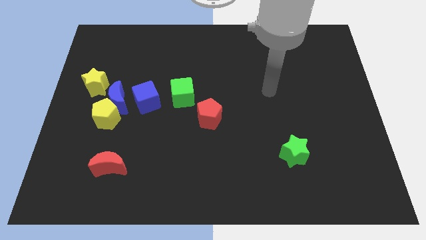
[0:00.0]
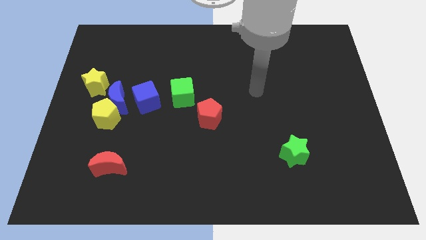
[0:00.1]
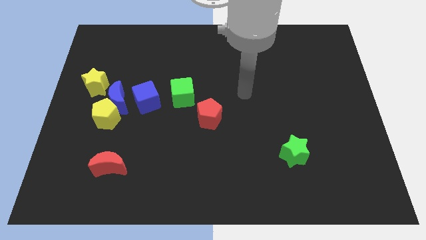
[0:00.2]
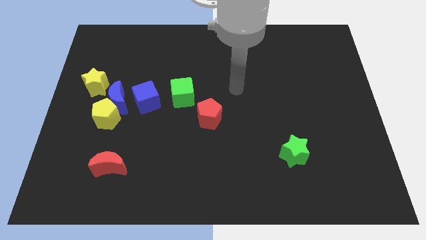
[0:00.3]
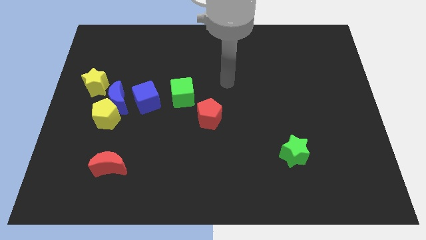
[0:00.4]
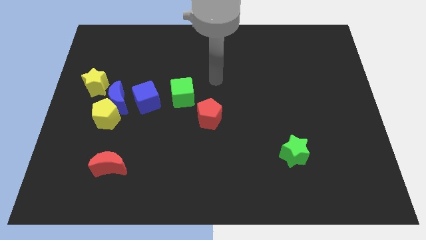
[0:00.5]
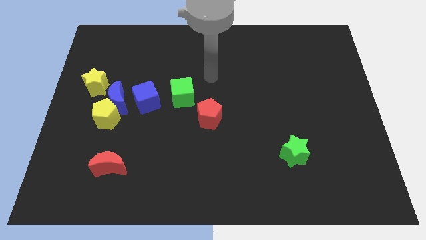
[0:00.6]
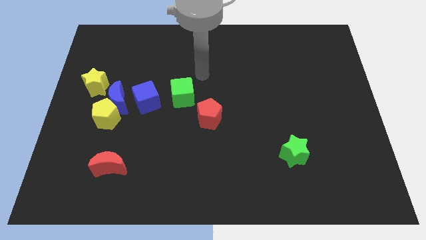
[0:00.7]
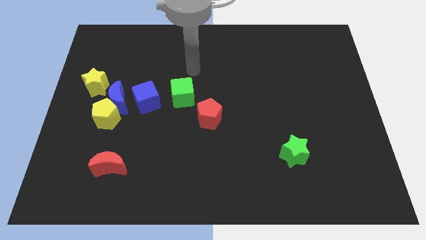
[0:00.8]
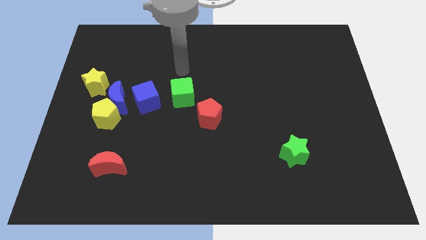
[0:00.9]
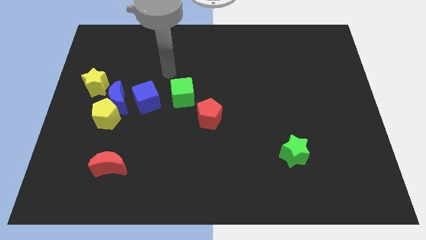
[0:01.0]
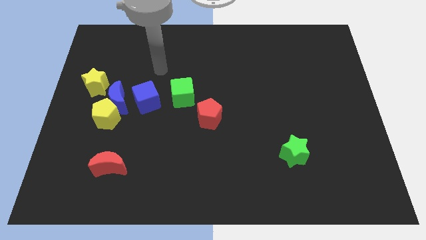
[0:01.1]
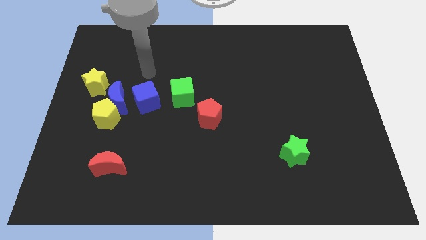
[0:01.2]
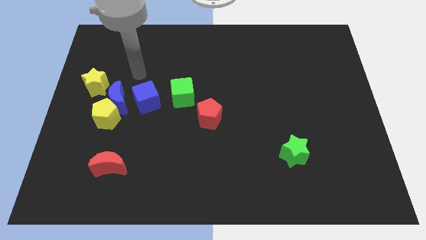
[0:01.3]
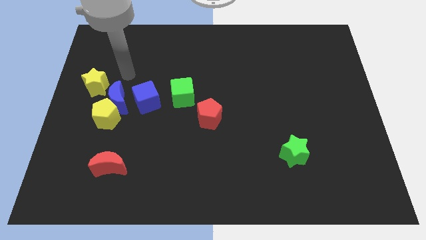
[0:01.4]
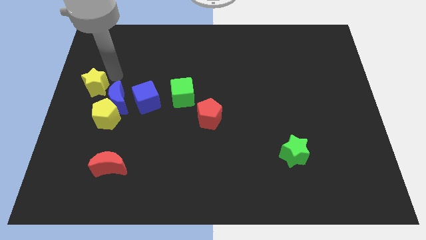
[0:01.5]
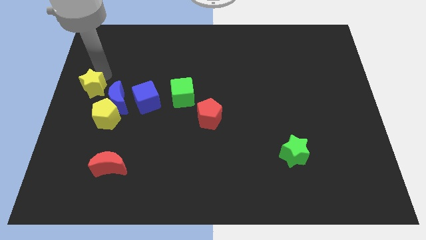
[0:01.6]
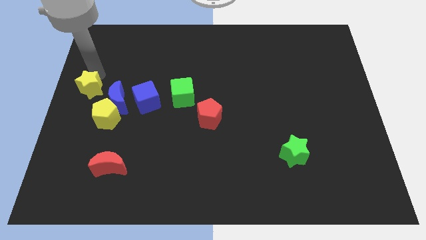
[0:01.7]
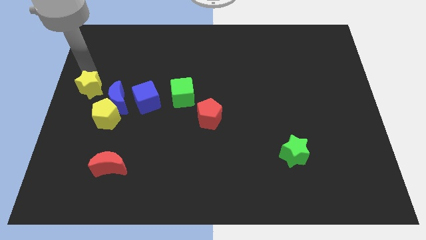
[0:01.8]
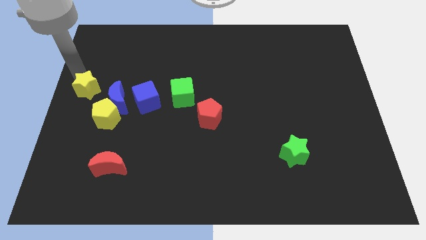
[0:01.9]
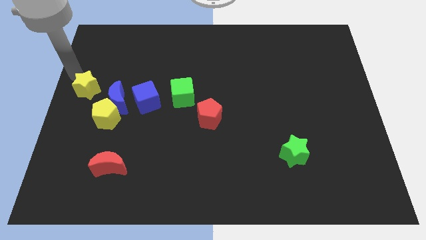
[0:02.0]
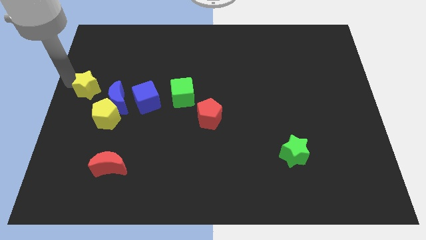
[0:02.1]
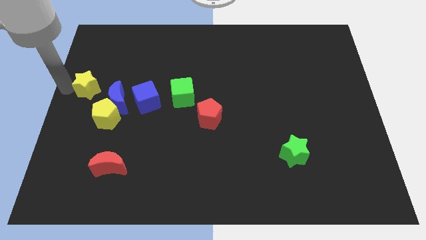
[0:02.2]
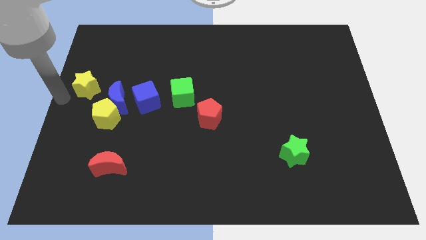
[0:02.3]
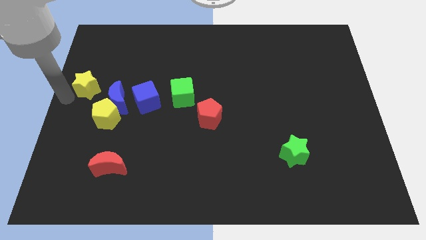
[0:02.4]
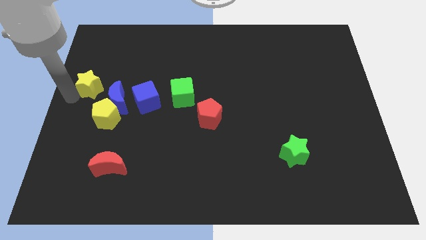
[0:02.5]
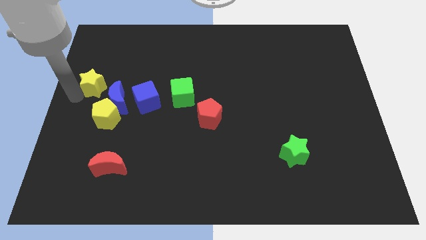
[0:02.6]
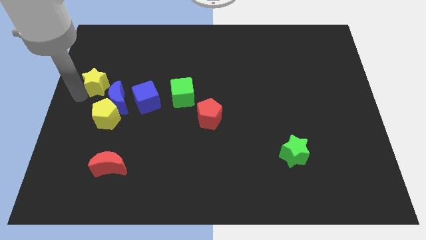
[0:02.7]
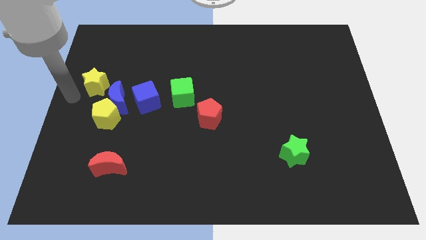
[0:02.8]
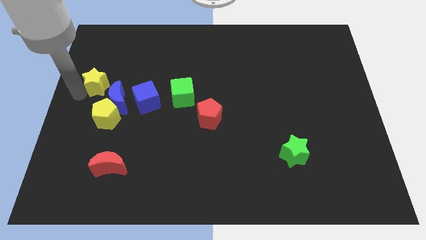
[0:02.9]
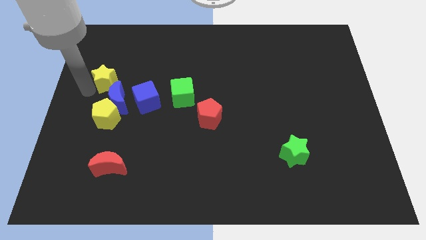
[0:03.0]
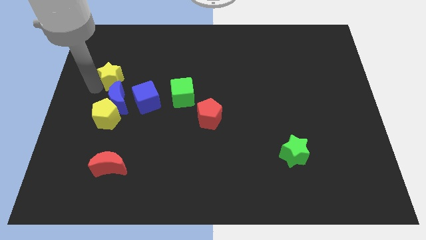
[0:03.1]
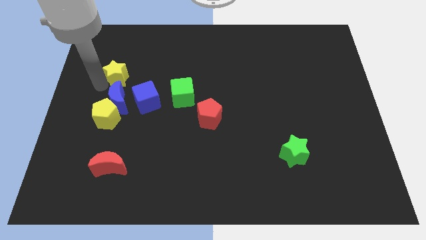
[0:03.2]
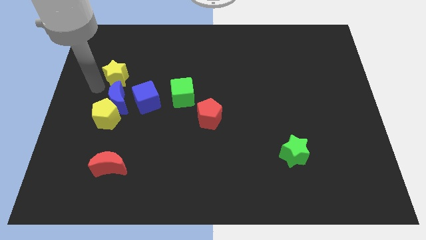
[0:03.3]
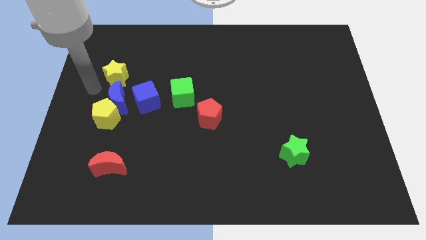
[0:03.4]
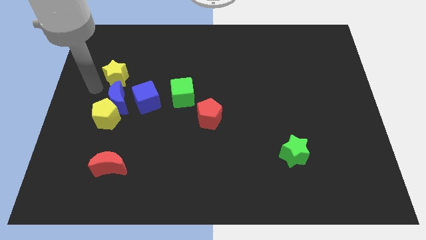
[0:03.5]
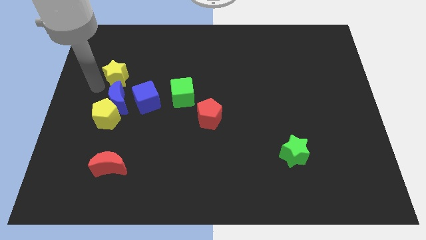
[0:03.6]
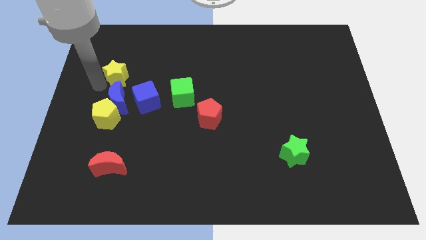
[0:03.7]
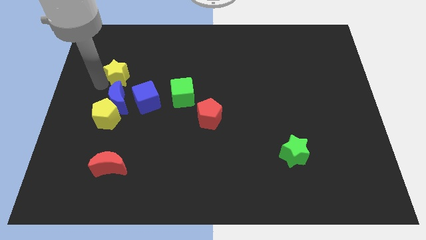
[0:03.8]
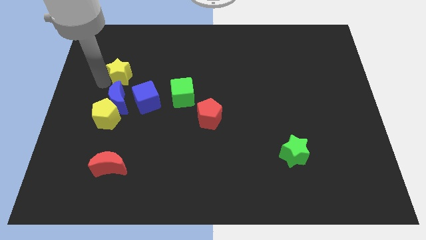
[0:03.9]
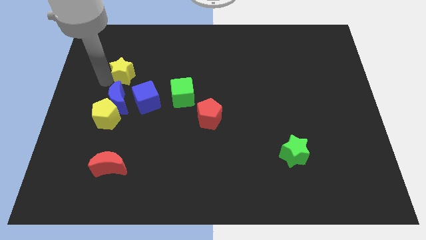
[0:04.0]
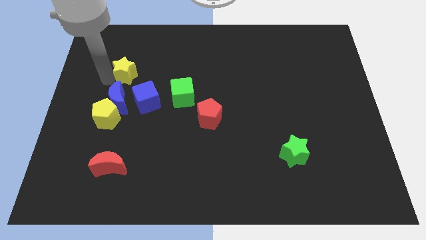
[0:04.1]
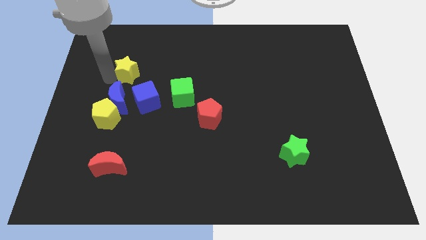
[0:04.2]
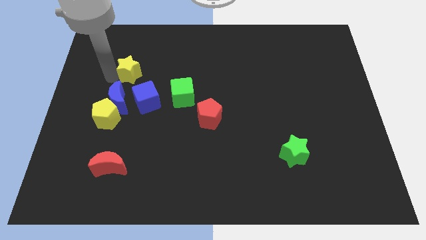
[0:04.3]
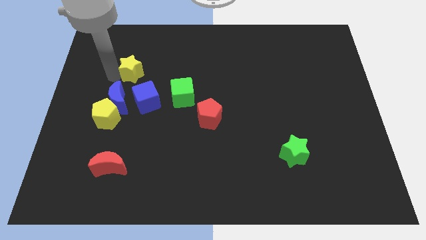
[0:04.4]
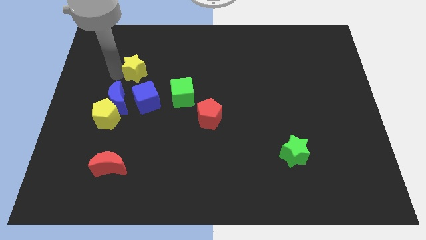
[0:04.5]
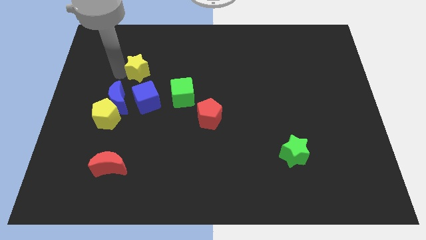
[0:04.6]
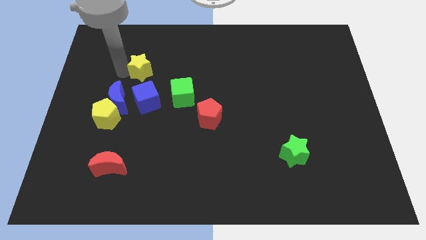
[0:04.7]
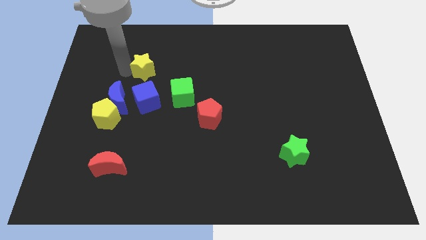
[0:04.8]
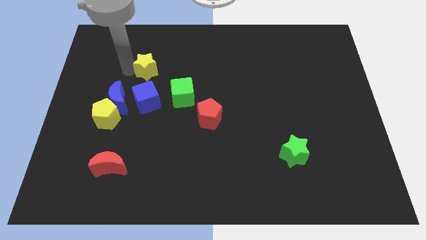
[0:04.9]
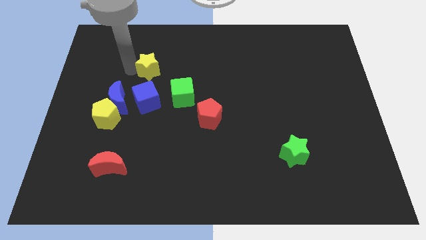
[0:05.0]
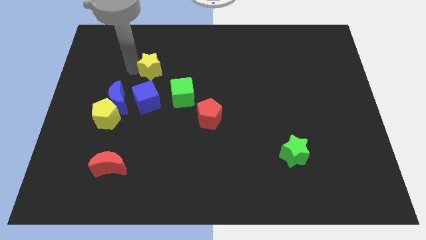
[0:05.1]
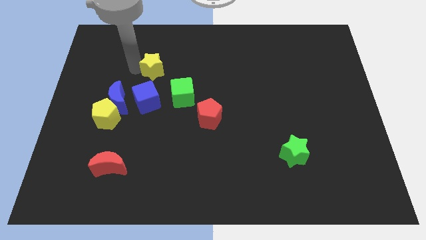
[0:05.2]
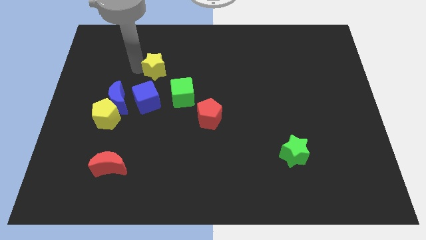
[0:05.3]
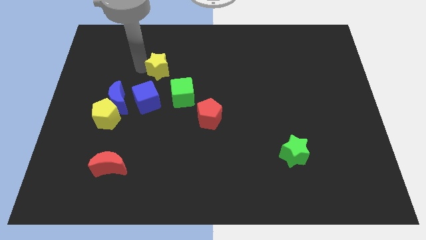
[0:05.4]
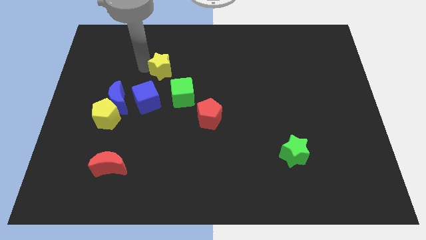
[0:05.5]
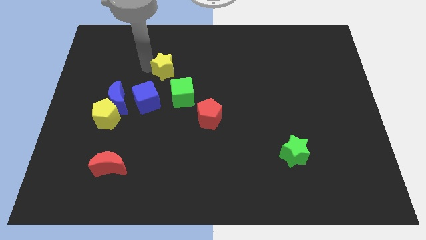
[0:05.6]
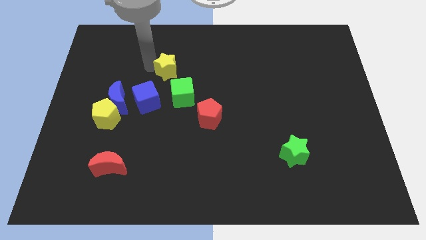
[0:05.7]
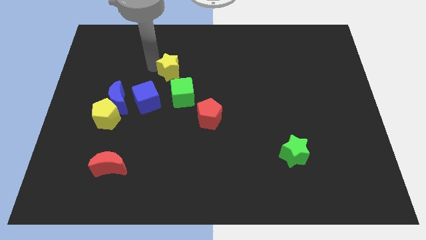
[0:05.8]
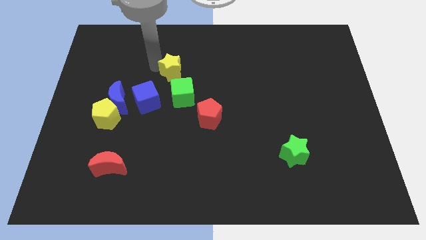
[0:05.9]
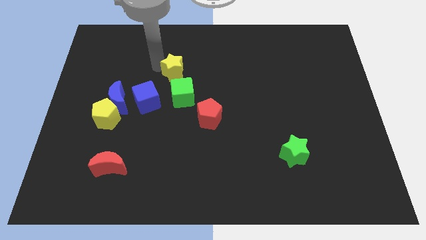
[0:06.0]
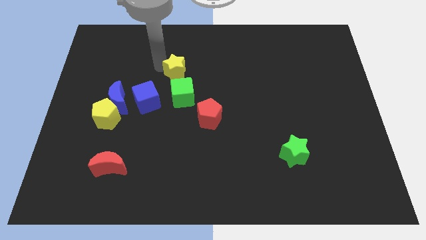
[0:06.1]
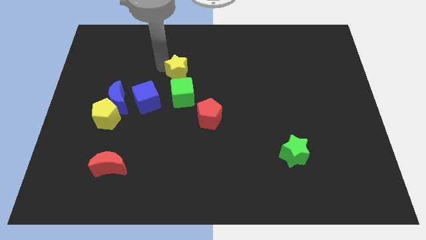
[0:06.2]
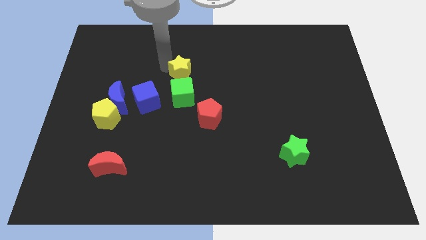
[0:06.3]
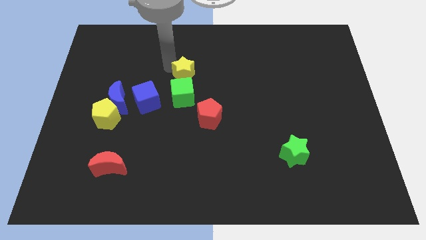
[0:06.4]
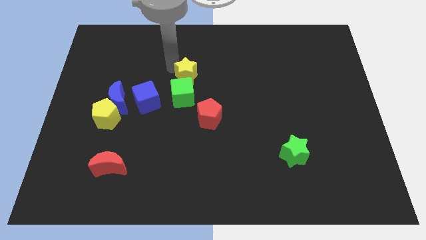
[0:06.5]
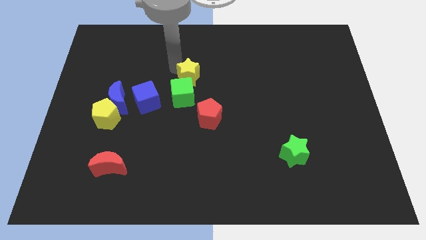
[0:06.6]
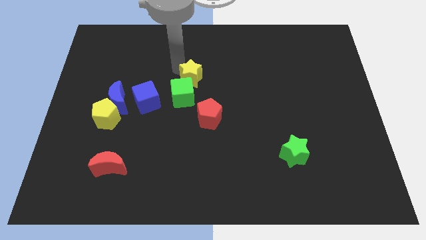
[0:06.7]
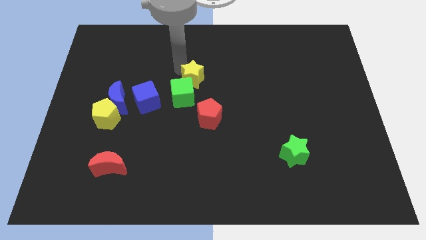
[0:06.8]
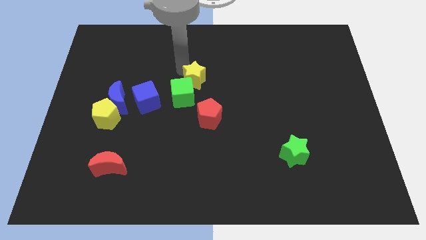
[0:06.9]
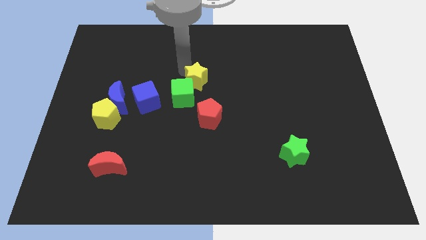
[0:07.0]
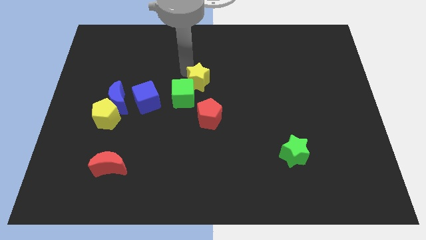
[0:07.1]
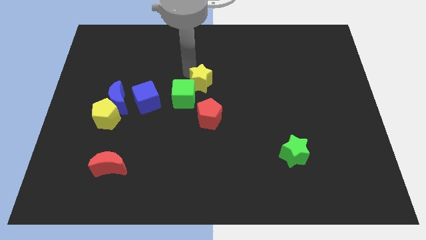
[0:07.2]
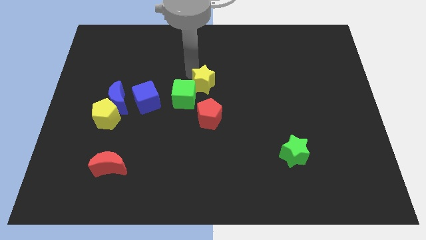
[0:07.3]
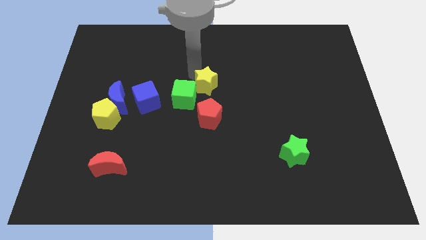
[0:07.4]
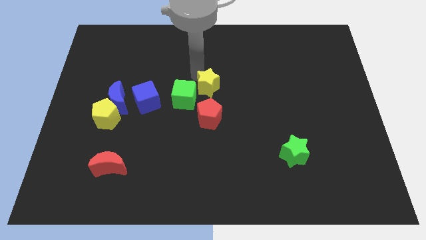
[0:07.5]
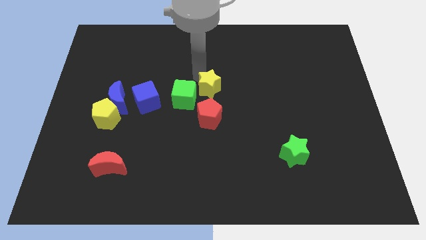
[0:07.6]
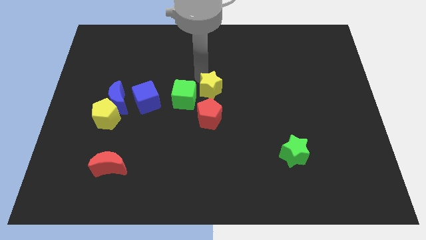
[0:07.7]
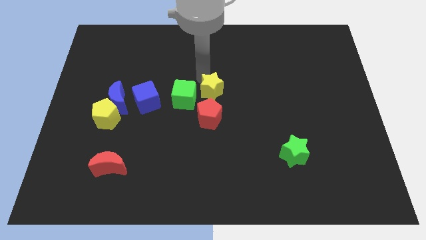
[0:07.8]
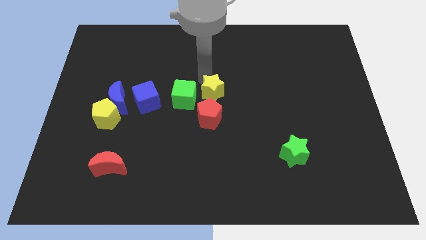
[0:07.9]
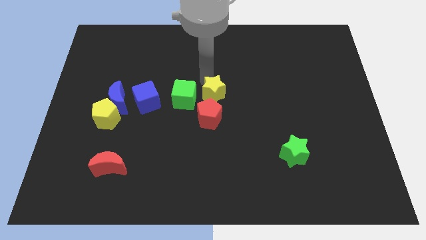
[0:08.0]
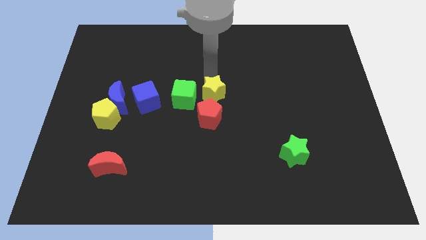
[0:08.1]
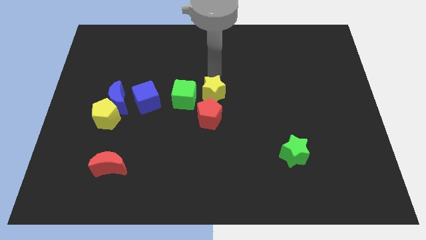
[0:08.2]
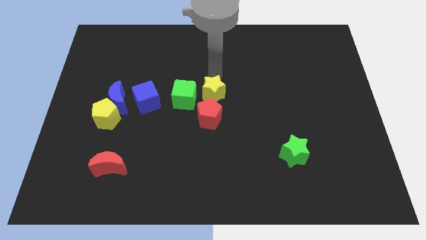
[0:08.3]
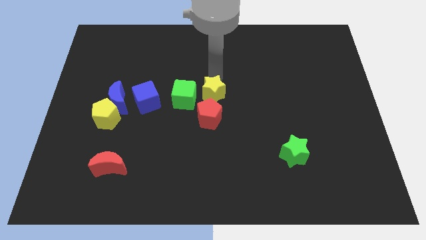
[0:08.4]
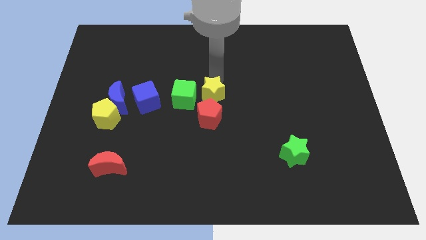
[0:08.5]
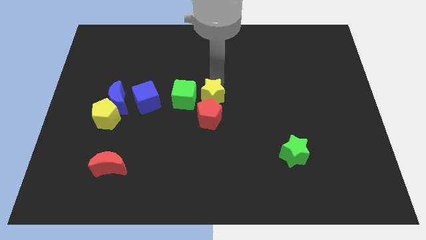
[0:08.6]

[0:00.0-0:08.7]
move the yellow star towards the red pentagon
